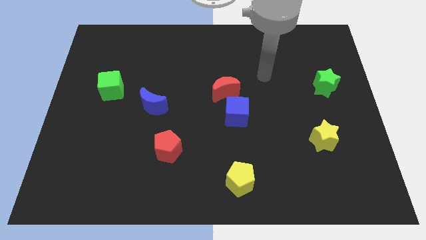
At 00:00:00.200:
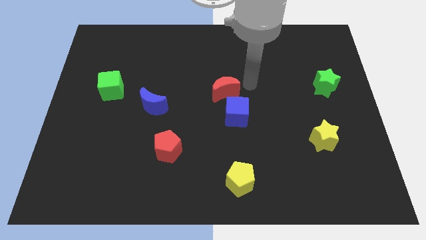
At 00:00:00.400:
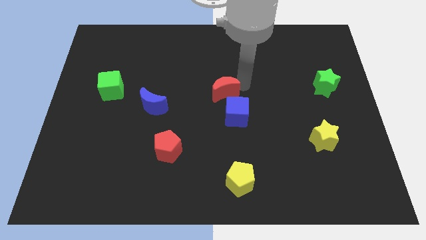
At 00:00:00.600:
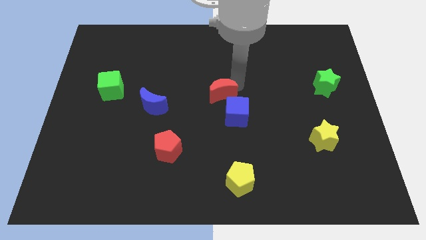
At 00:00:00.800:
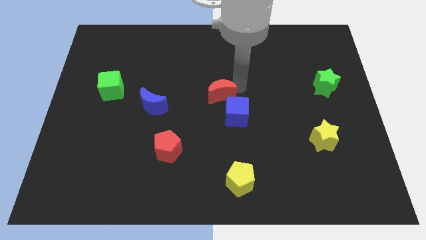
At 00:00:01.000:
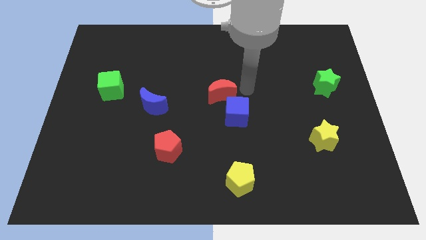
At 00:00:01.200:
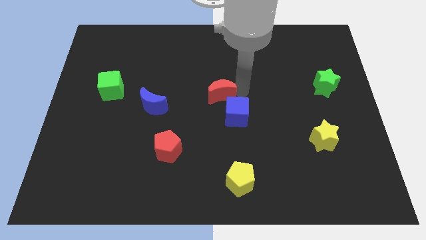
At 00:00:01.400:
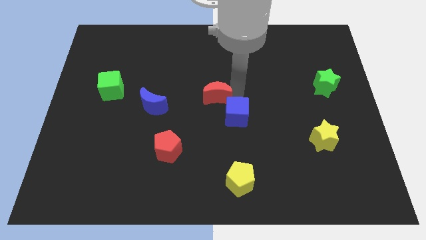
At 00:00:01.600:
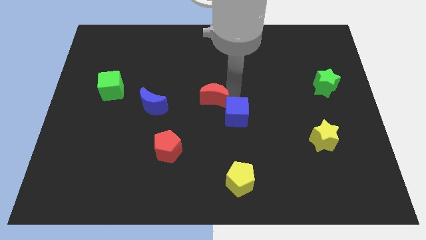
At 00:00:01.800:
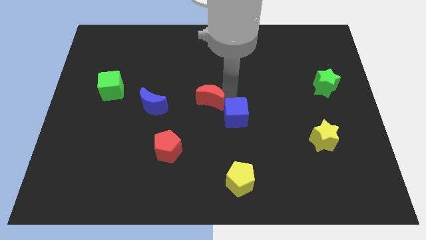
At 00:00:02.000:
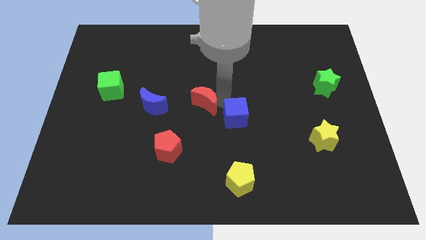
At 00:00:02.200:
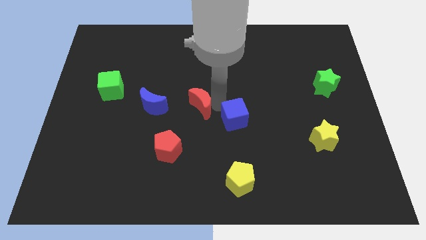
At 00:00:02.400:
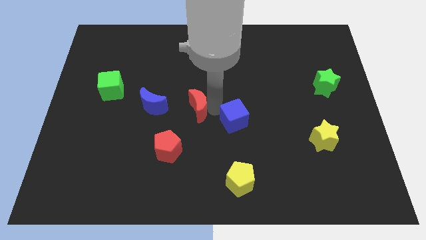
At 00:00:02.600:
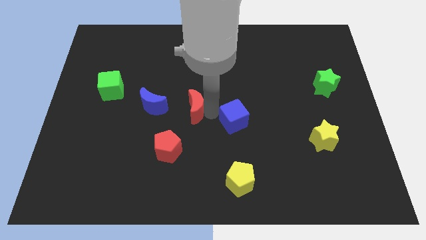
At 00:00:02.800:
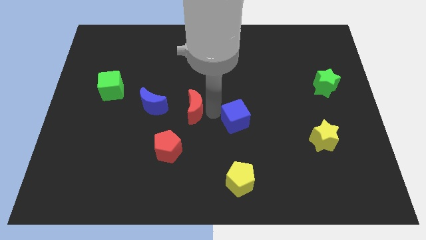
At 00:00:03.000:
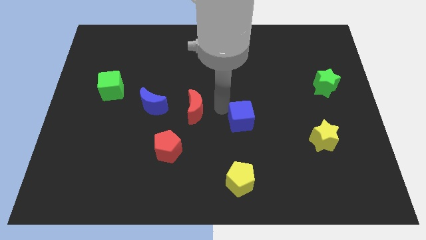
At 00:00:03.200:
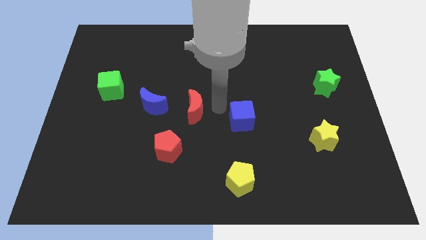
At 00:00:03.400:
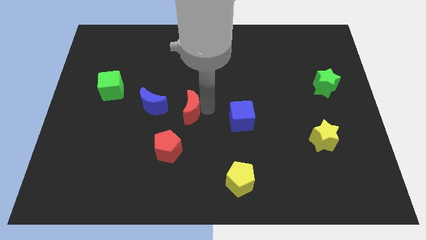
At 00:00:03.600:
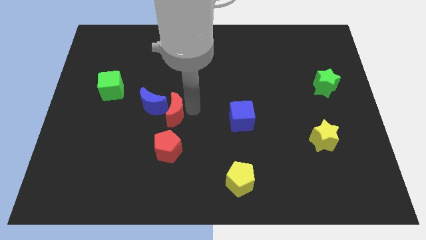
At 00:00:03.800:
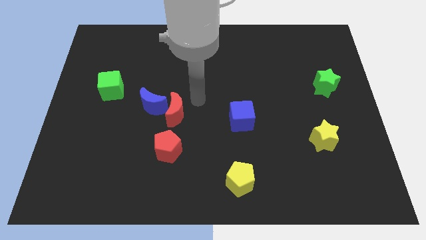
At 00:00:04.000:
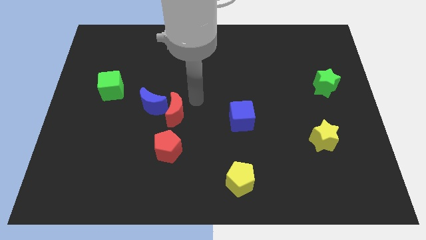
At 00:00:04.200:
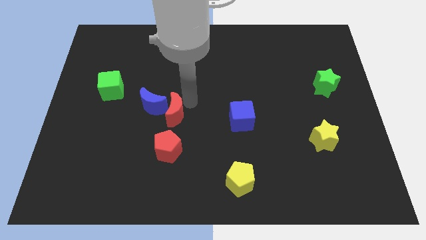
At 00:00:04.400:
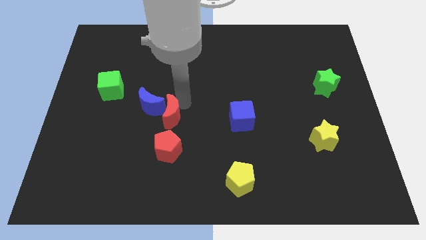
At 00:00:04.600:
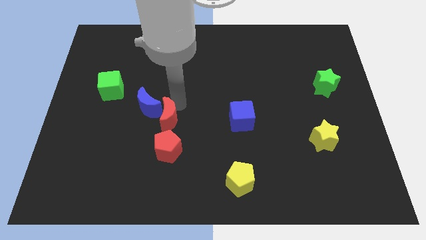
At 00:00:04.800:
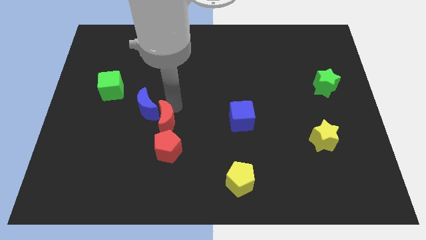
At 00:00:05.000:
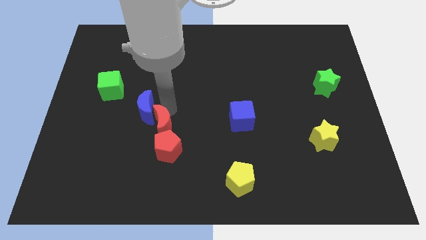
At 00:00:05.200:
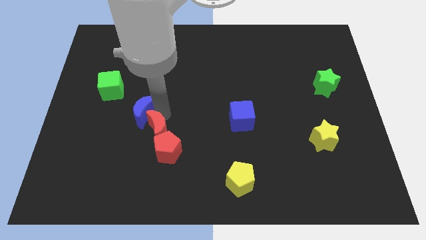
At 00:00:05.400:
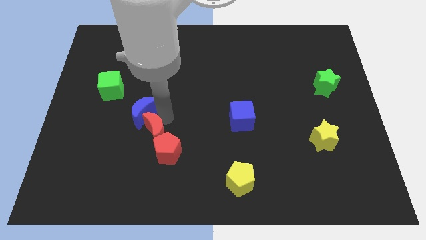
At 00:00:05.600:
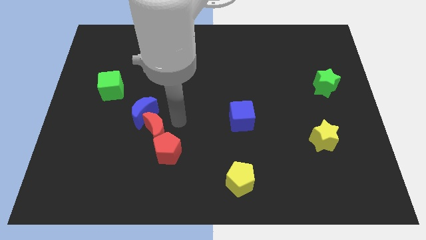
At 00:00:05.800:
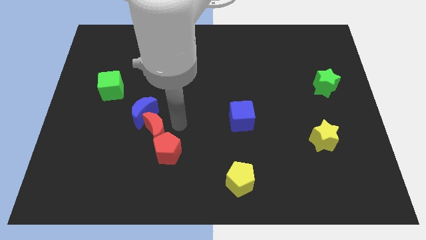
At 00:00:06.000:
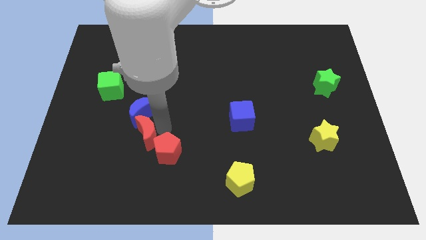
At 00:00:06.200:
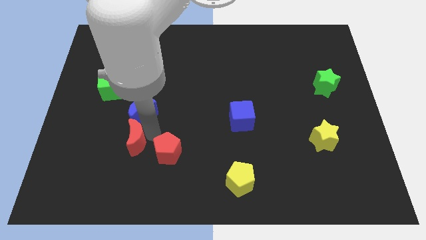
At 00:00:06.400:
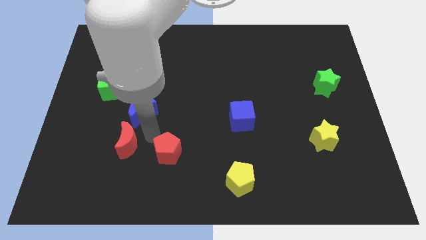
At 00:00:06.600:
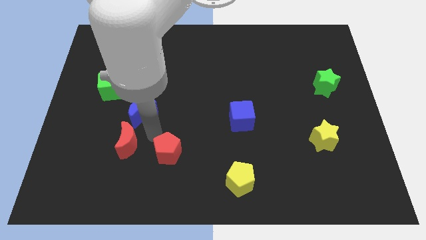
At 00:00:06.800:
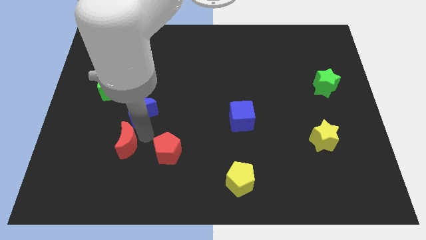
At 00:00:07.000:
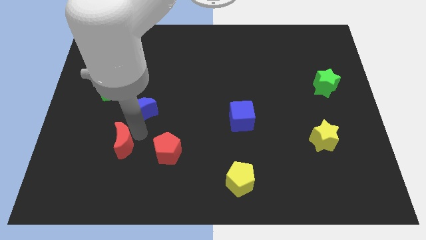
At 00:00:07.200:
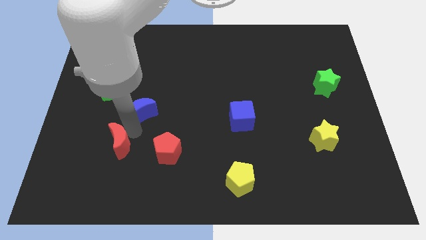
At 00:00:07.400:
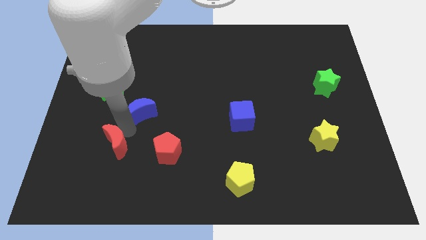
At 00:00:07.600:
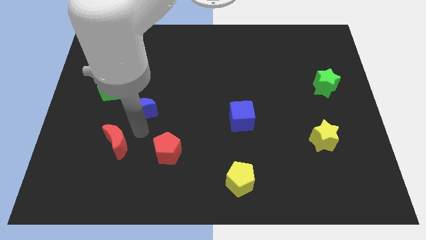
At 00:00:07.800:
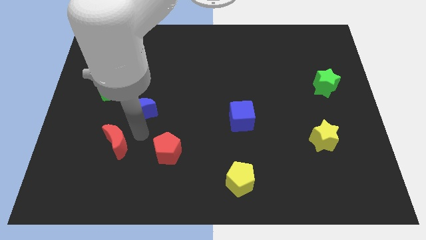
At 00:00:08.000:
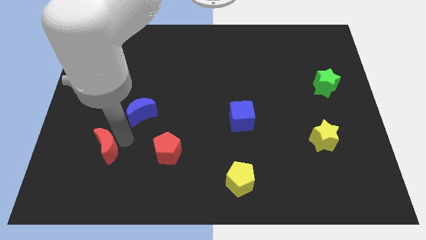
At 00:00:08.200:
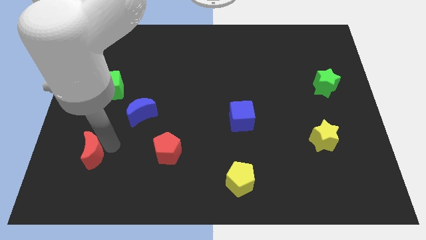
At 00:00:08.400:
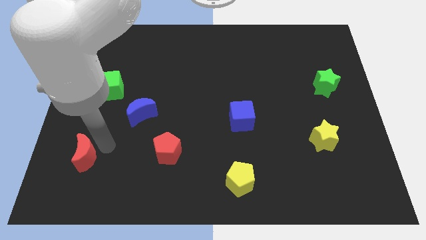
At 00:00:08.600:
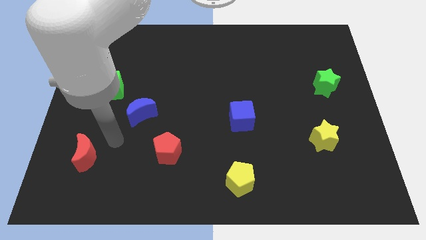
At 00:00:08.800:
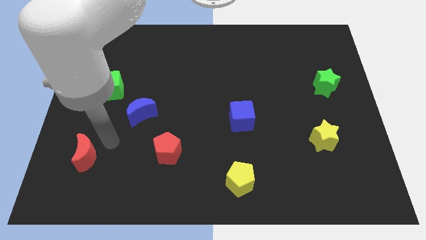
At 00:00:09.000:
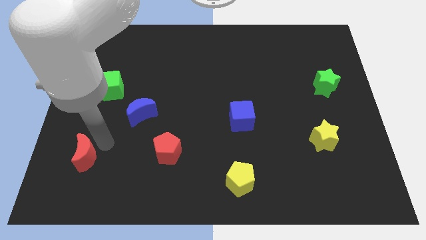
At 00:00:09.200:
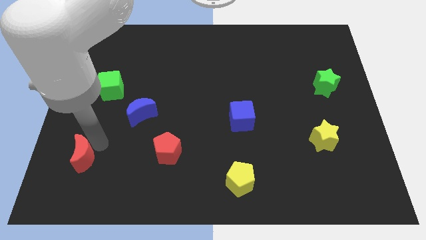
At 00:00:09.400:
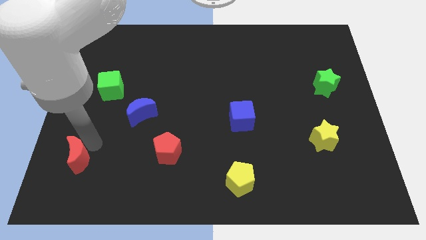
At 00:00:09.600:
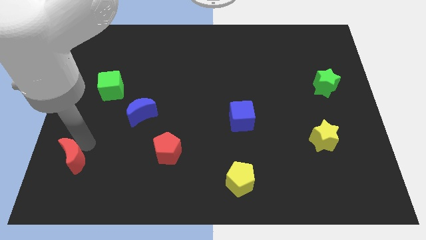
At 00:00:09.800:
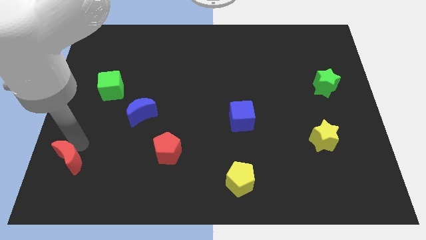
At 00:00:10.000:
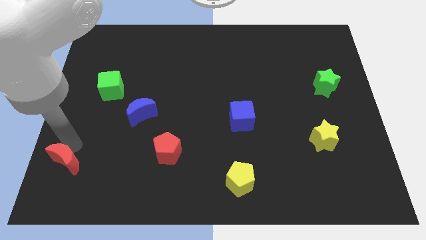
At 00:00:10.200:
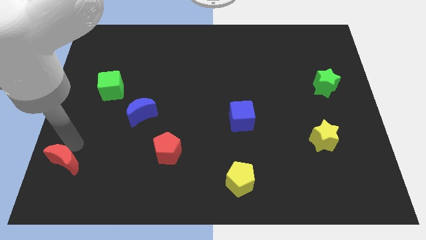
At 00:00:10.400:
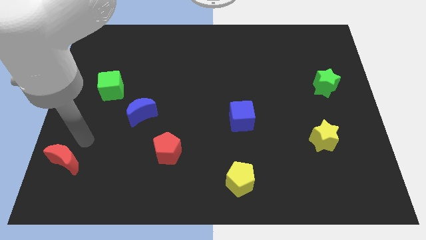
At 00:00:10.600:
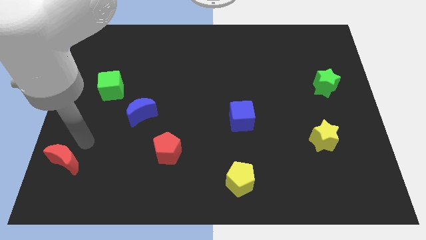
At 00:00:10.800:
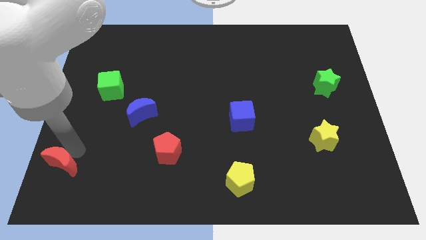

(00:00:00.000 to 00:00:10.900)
push the red moon to the lower left corner

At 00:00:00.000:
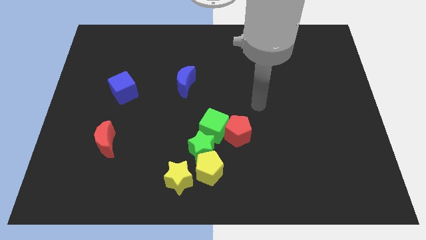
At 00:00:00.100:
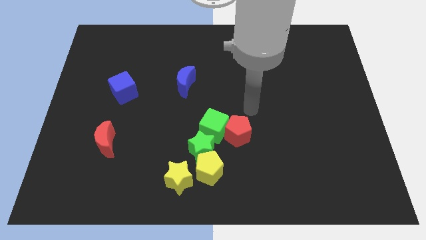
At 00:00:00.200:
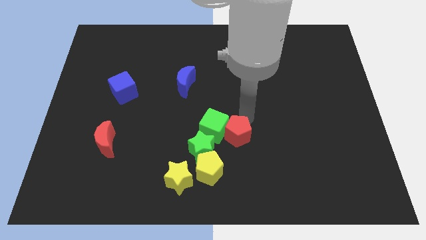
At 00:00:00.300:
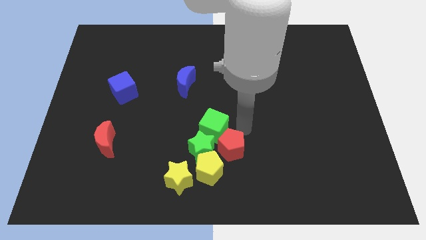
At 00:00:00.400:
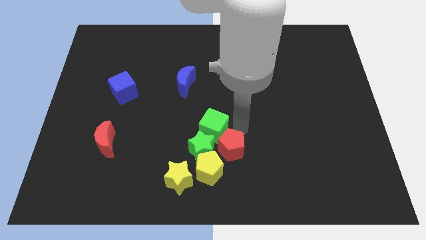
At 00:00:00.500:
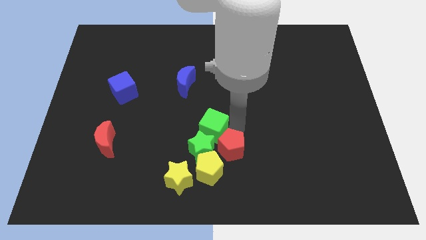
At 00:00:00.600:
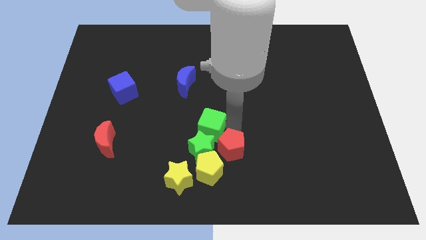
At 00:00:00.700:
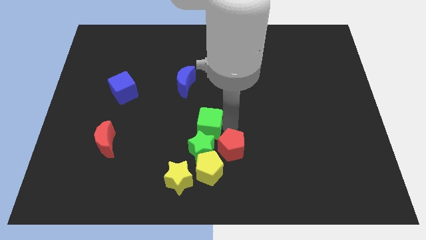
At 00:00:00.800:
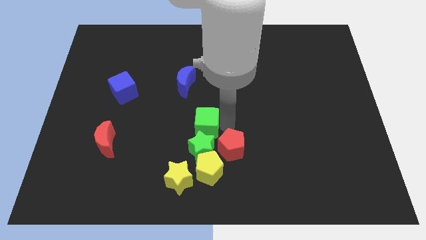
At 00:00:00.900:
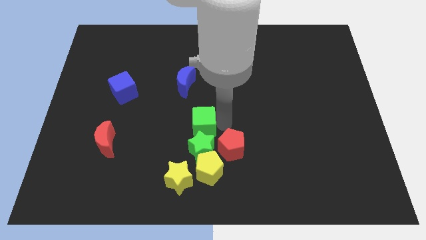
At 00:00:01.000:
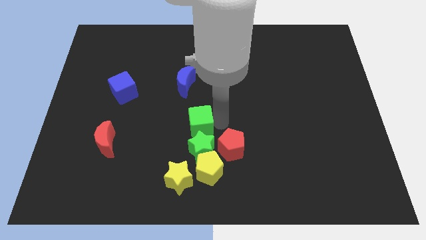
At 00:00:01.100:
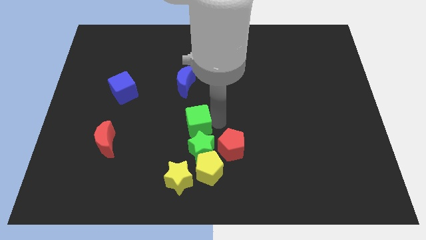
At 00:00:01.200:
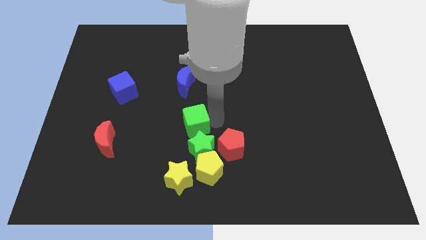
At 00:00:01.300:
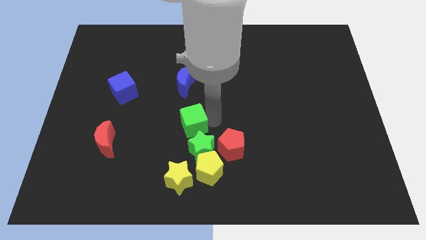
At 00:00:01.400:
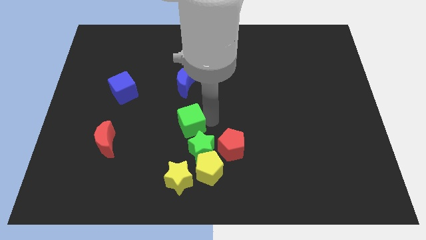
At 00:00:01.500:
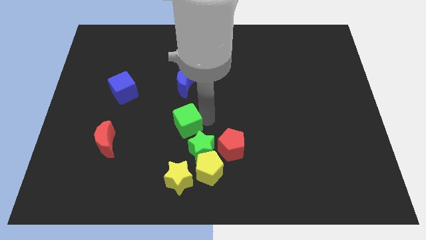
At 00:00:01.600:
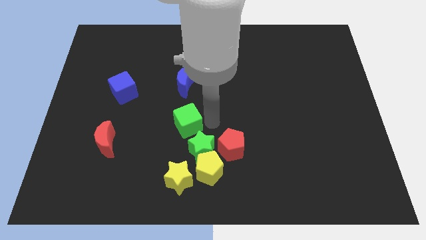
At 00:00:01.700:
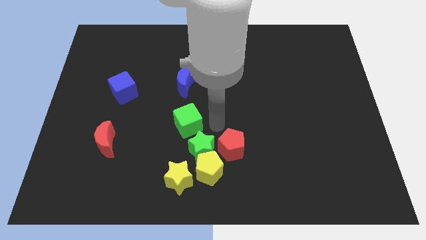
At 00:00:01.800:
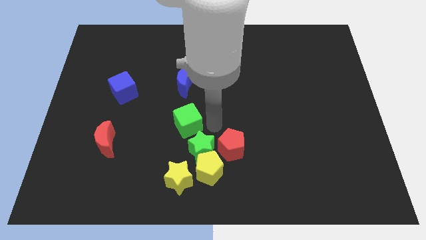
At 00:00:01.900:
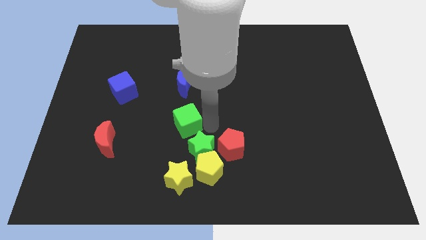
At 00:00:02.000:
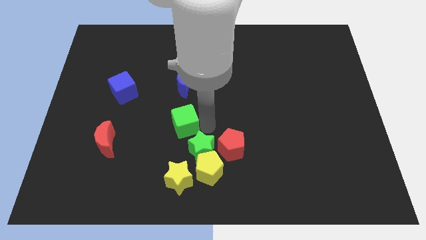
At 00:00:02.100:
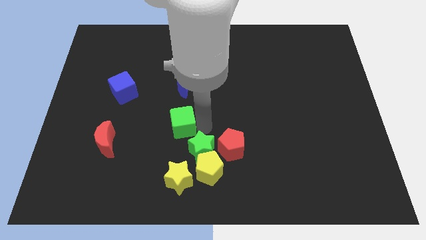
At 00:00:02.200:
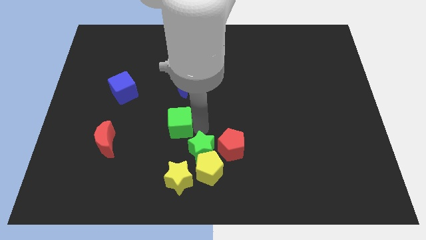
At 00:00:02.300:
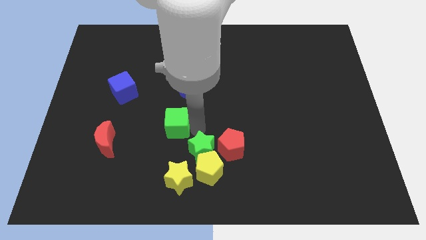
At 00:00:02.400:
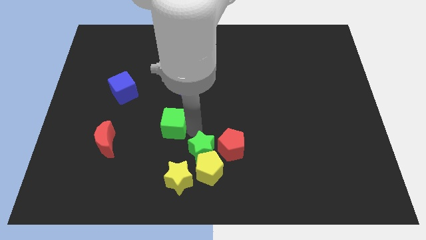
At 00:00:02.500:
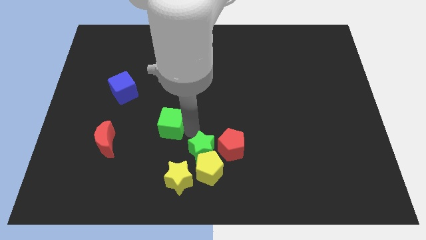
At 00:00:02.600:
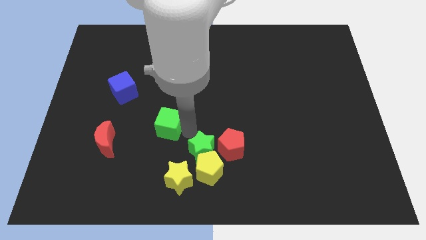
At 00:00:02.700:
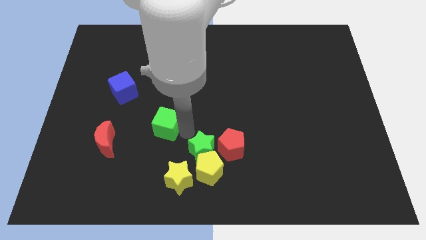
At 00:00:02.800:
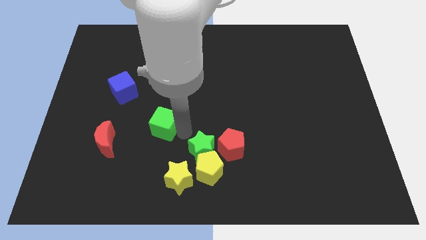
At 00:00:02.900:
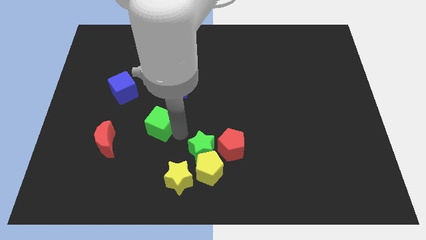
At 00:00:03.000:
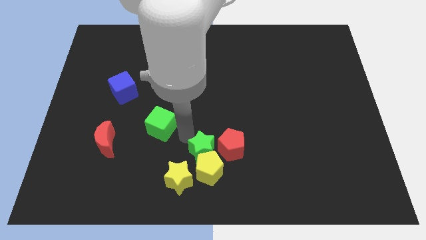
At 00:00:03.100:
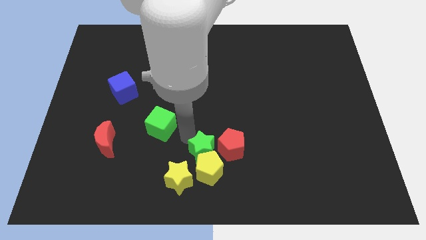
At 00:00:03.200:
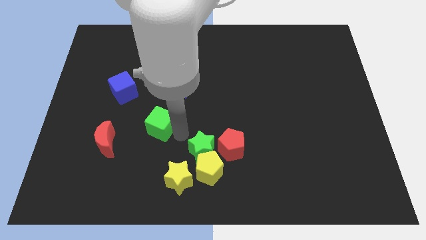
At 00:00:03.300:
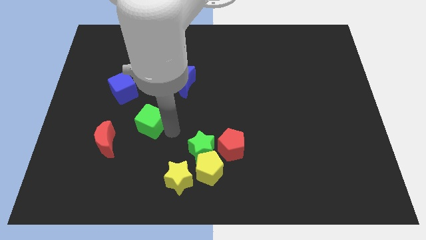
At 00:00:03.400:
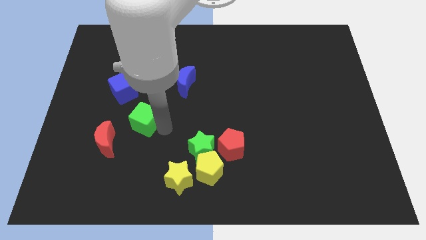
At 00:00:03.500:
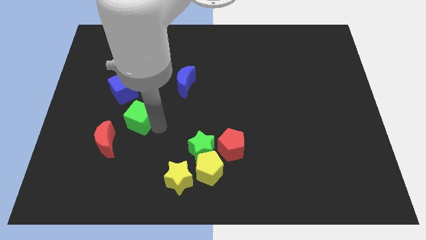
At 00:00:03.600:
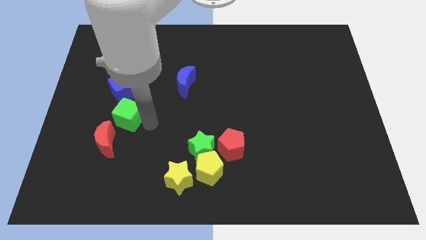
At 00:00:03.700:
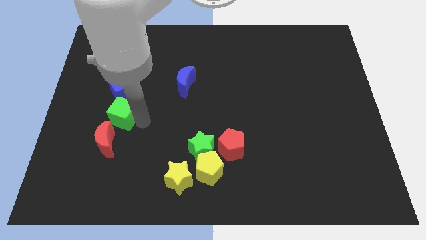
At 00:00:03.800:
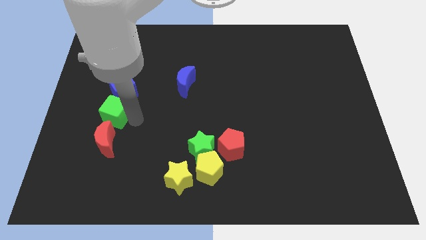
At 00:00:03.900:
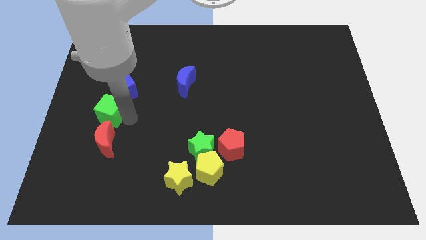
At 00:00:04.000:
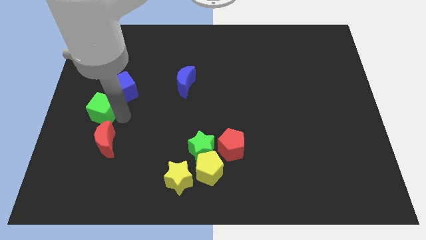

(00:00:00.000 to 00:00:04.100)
slide the green cube to the left side
